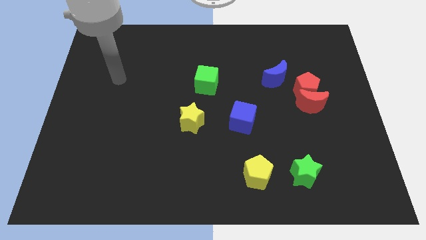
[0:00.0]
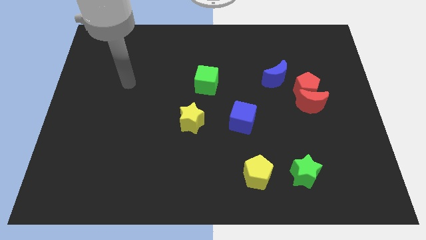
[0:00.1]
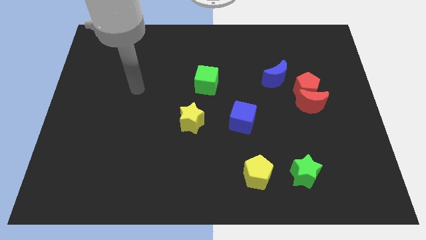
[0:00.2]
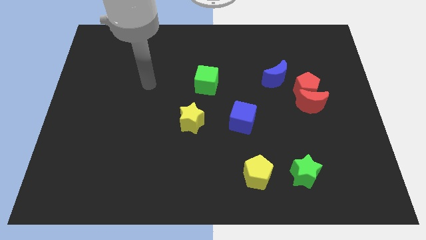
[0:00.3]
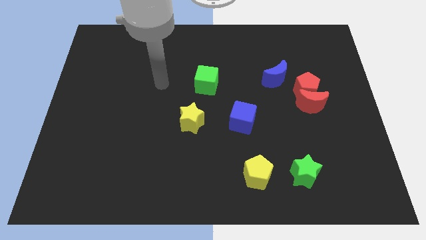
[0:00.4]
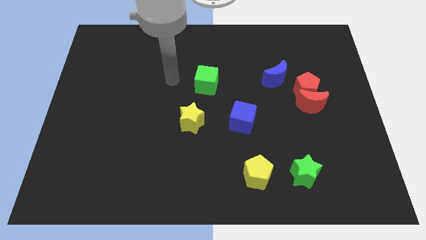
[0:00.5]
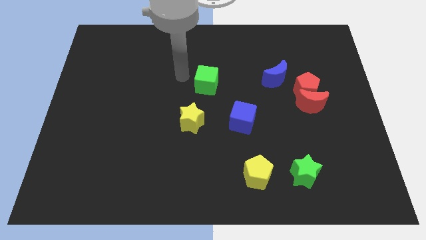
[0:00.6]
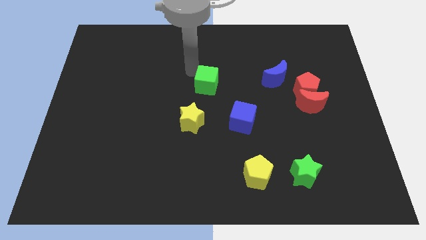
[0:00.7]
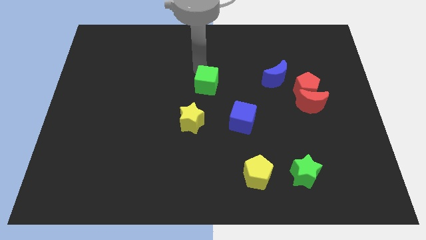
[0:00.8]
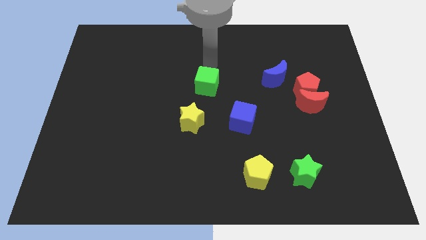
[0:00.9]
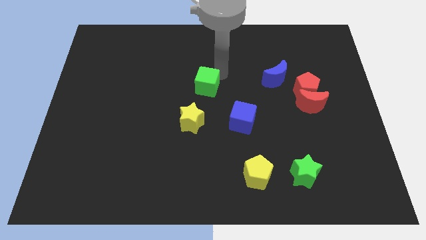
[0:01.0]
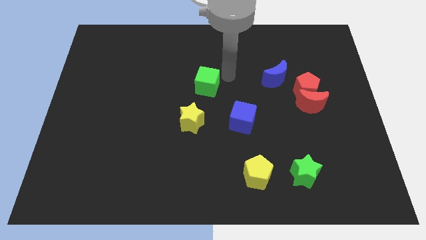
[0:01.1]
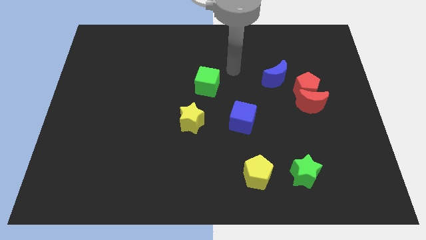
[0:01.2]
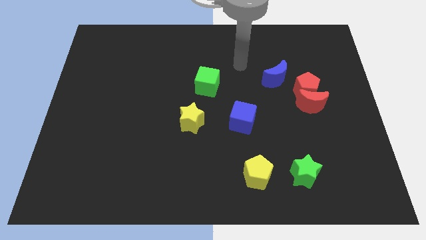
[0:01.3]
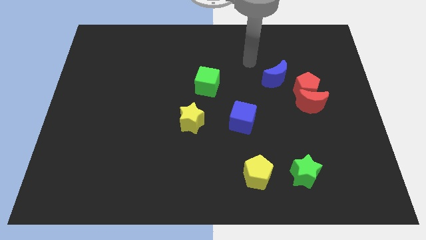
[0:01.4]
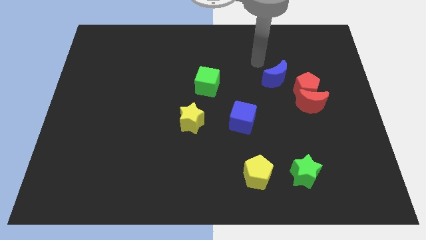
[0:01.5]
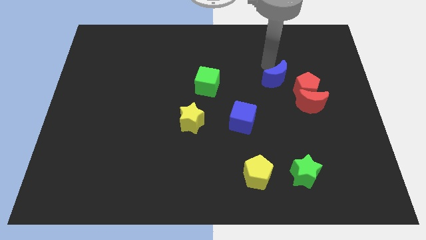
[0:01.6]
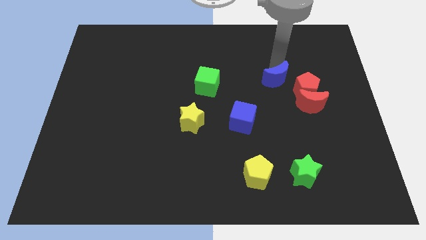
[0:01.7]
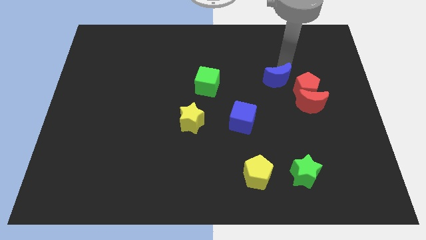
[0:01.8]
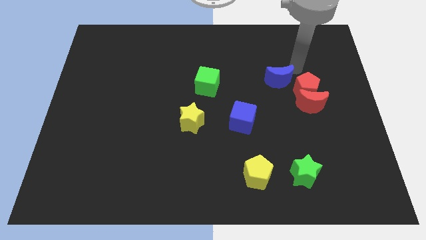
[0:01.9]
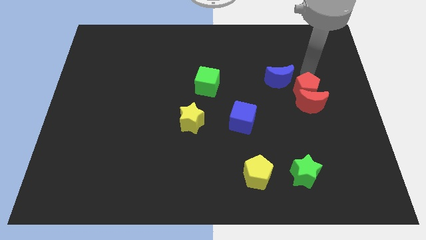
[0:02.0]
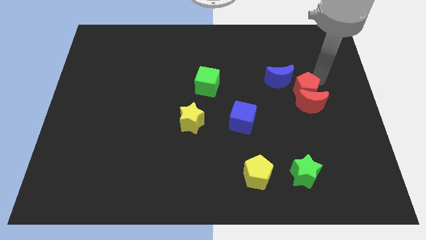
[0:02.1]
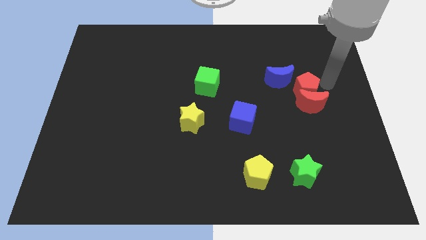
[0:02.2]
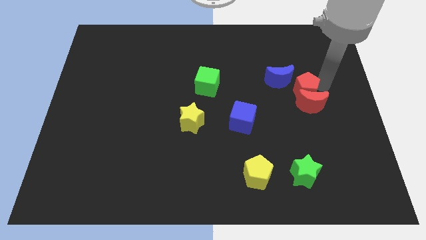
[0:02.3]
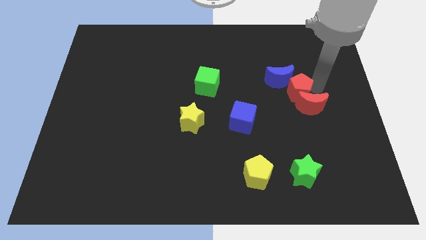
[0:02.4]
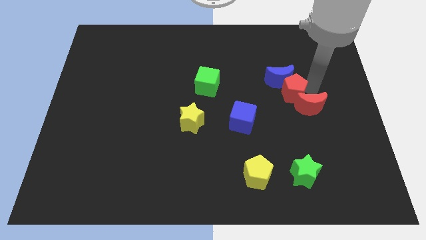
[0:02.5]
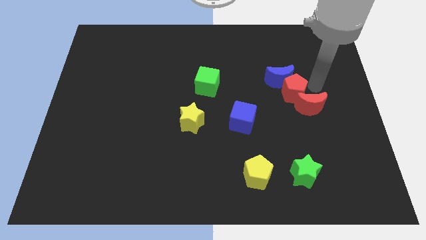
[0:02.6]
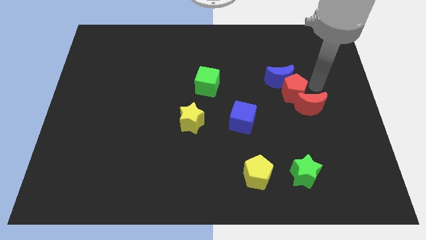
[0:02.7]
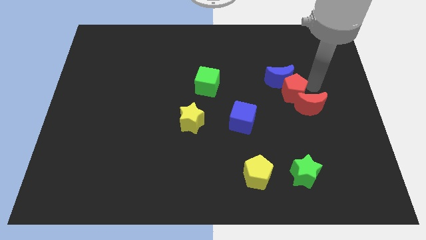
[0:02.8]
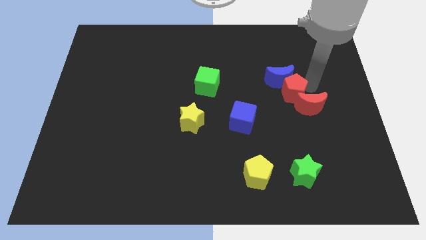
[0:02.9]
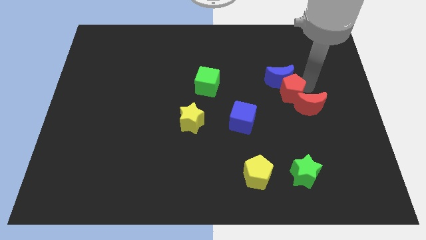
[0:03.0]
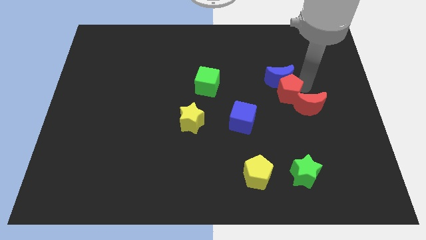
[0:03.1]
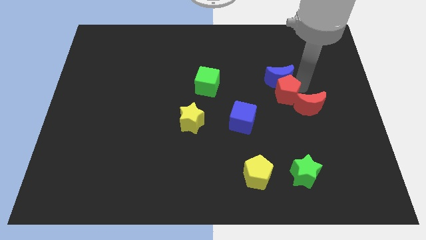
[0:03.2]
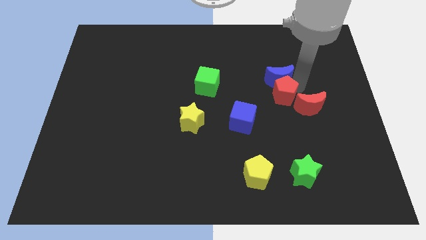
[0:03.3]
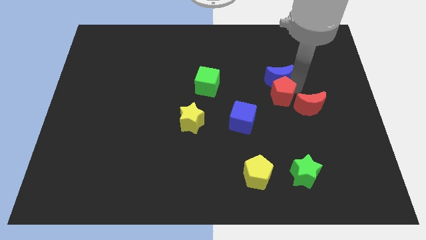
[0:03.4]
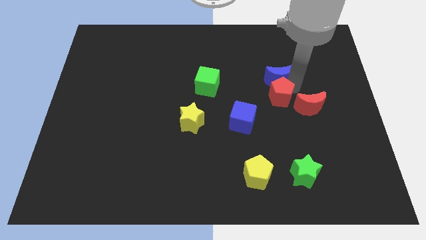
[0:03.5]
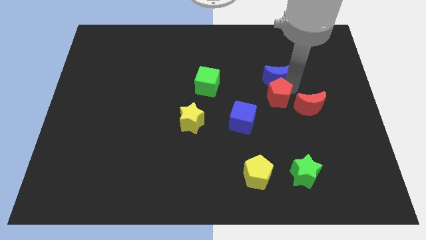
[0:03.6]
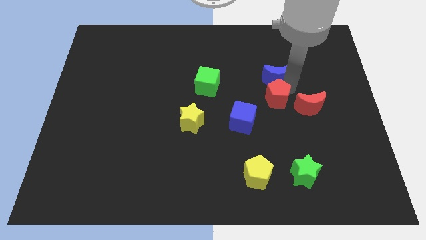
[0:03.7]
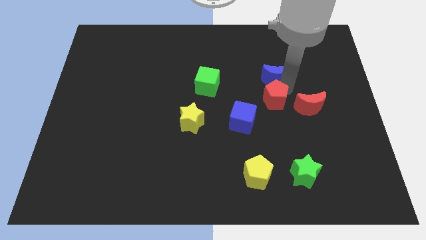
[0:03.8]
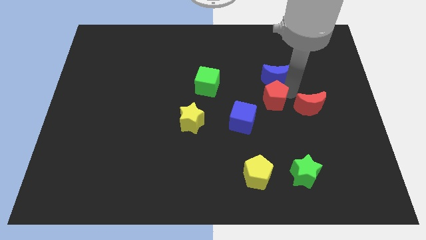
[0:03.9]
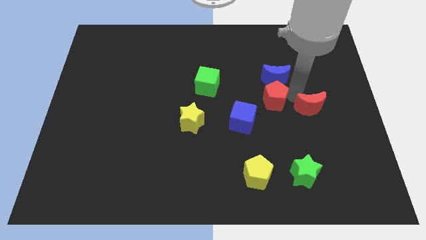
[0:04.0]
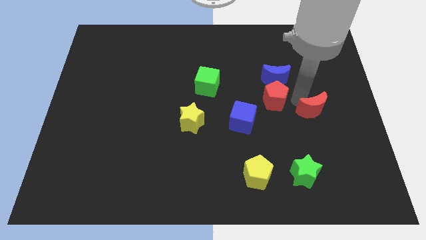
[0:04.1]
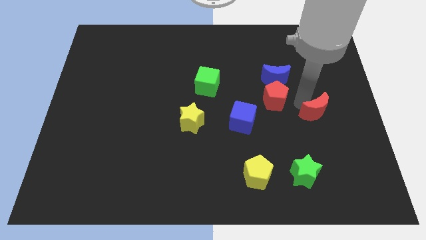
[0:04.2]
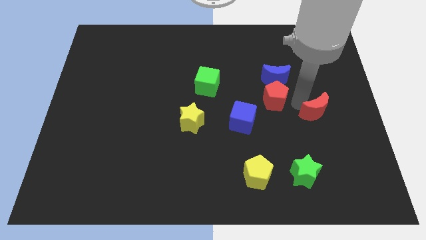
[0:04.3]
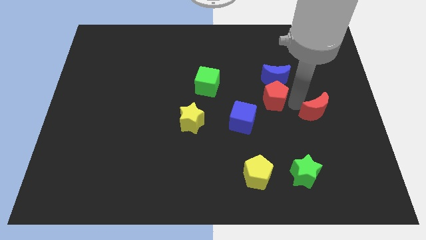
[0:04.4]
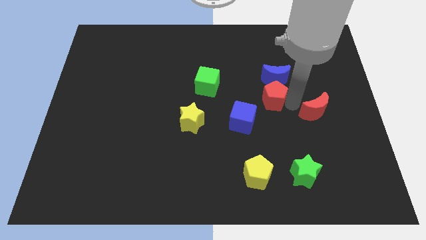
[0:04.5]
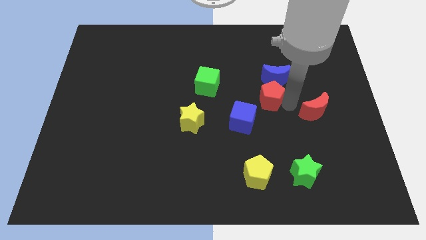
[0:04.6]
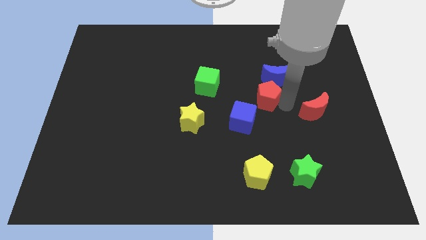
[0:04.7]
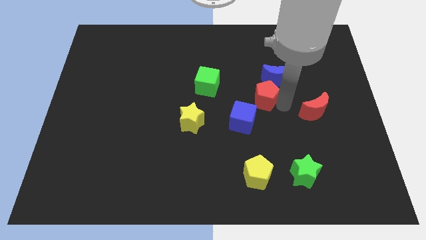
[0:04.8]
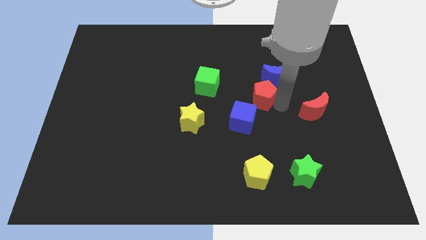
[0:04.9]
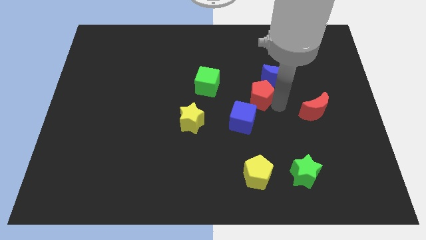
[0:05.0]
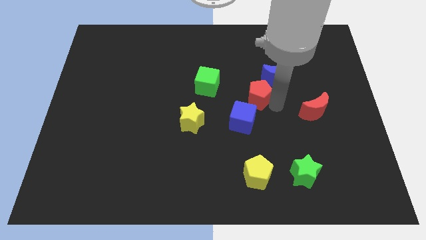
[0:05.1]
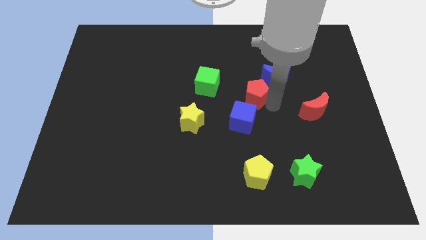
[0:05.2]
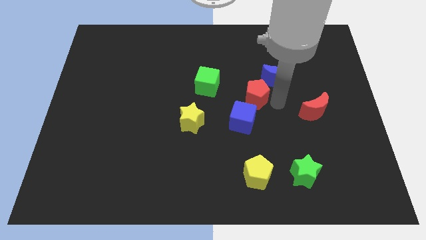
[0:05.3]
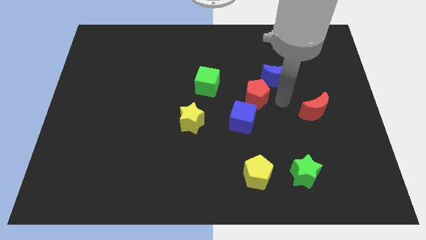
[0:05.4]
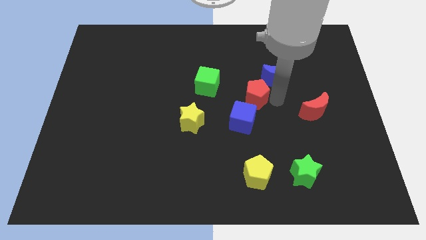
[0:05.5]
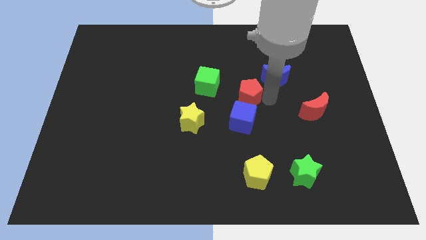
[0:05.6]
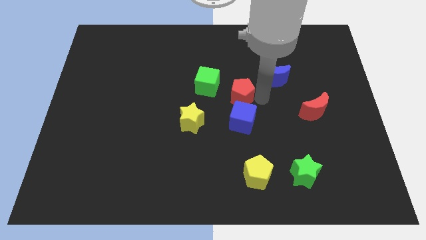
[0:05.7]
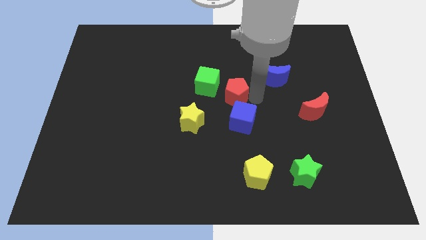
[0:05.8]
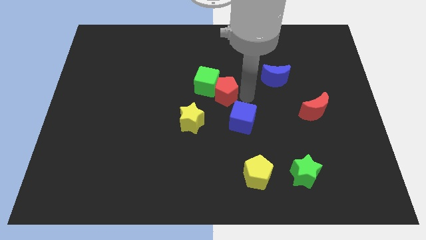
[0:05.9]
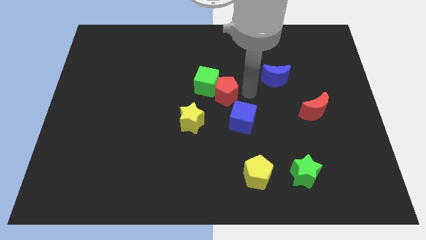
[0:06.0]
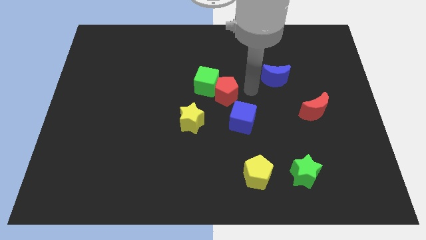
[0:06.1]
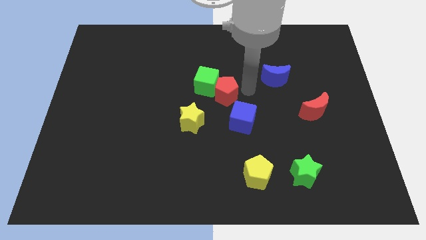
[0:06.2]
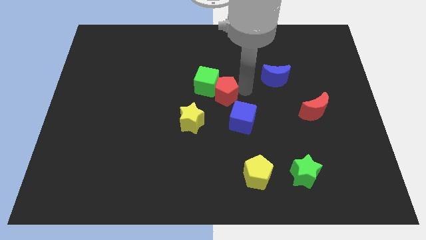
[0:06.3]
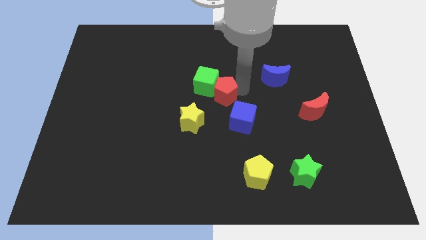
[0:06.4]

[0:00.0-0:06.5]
push the red pentagon to the left

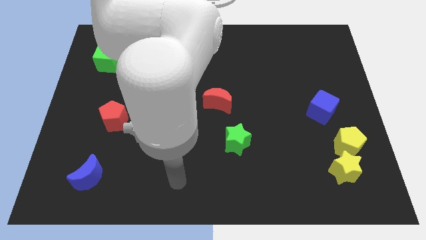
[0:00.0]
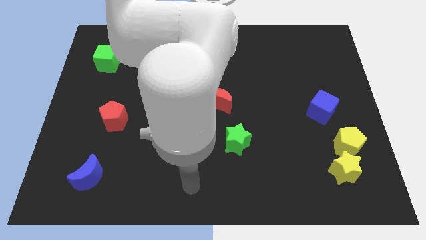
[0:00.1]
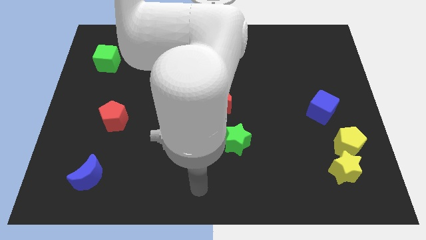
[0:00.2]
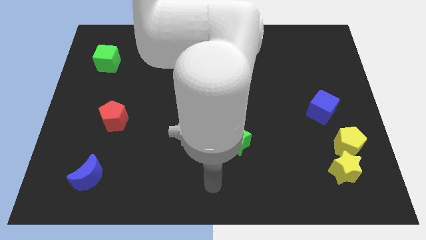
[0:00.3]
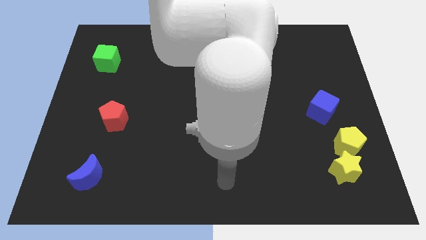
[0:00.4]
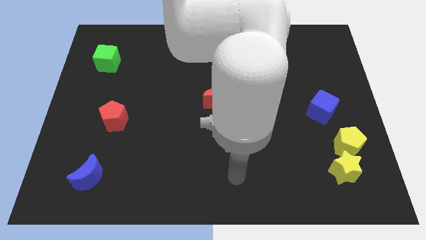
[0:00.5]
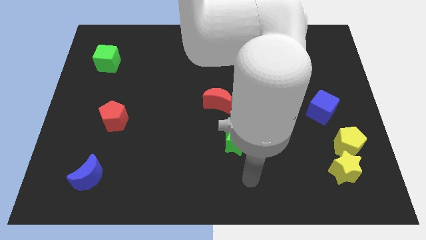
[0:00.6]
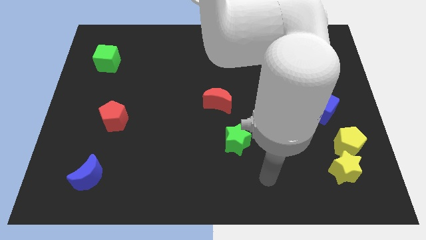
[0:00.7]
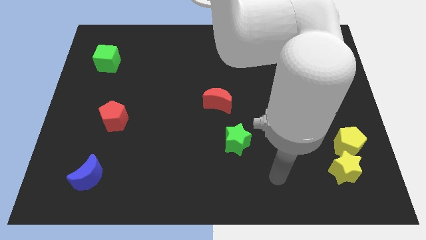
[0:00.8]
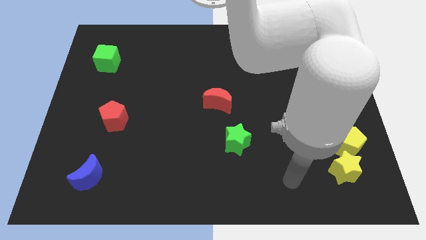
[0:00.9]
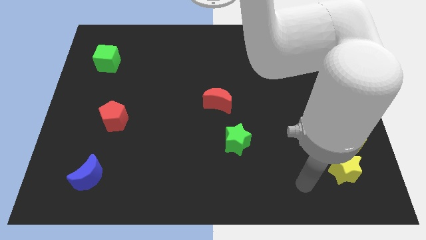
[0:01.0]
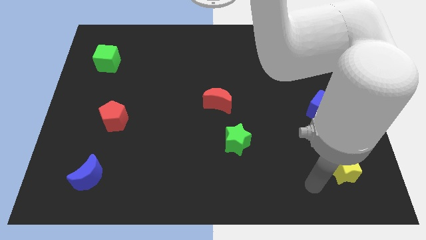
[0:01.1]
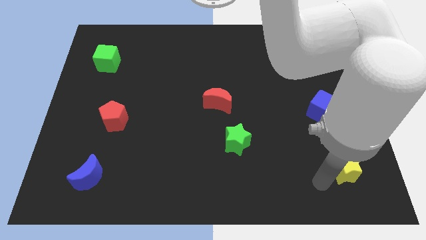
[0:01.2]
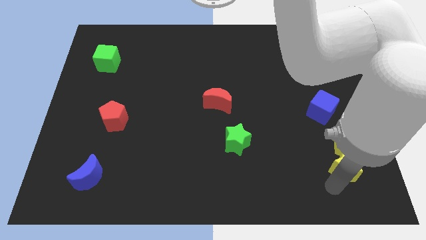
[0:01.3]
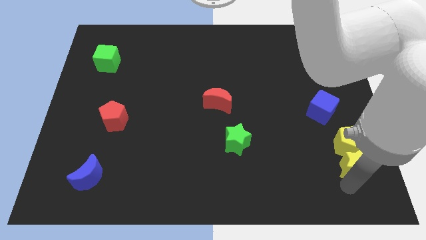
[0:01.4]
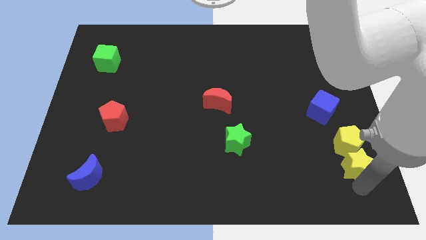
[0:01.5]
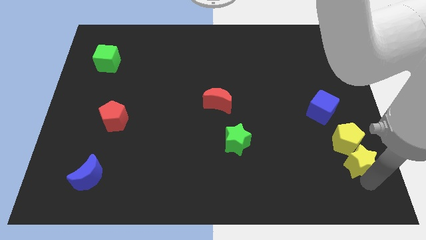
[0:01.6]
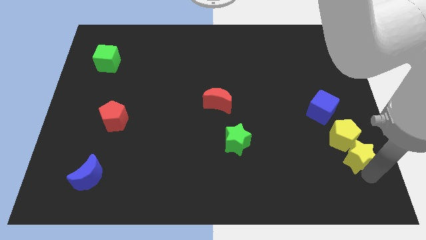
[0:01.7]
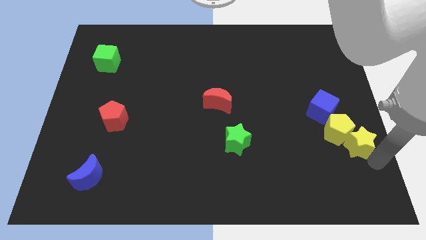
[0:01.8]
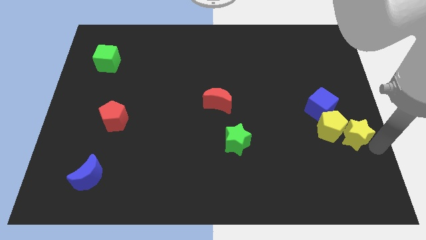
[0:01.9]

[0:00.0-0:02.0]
move the yellow star up a bit
